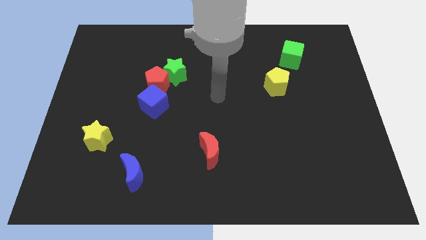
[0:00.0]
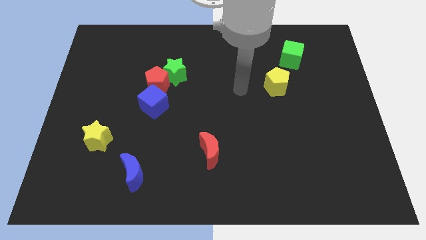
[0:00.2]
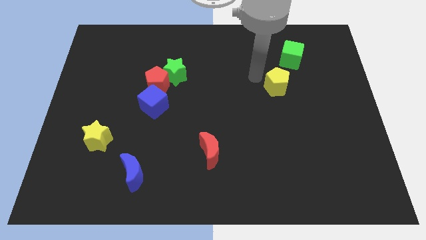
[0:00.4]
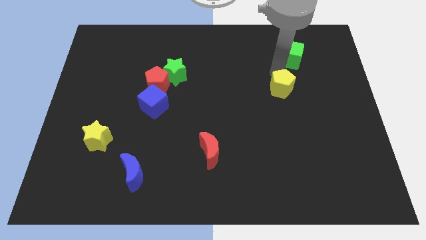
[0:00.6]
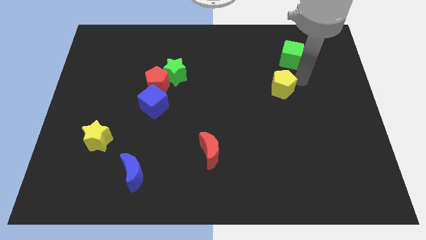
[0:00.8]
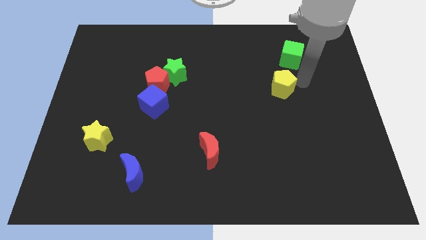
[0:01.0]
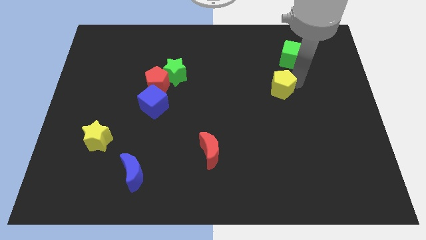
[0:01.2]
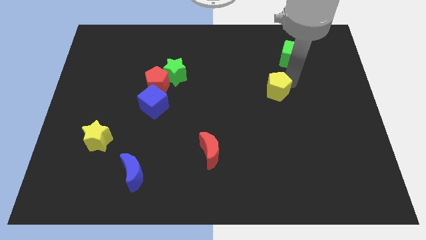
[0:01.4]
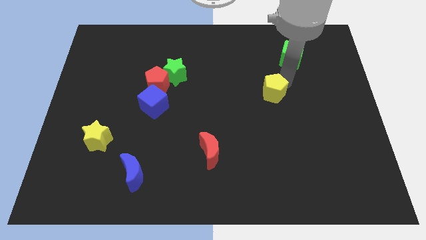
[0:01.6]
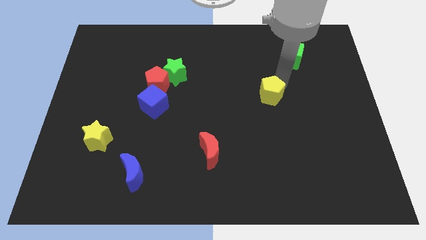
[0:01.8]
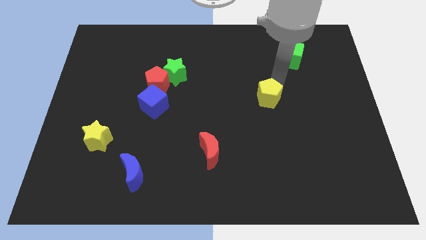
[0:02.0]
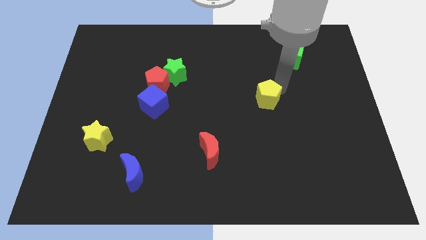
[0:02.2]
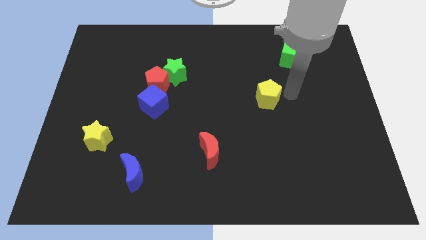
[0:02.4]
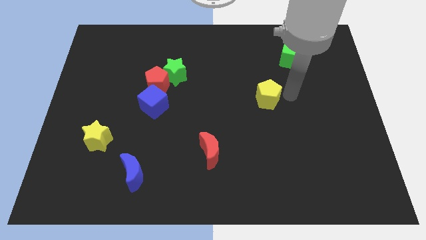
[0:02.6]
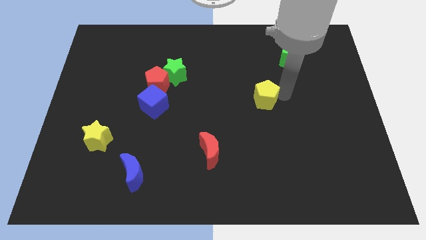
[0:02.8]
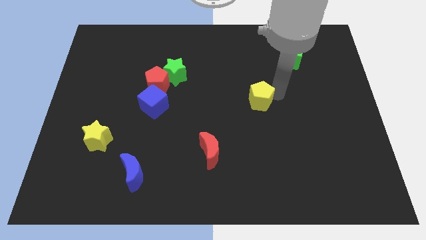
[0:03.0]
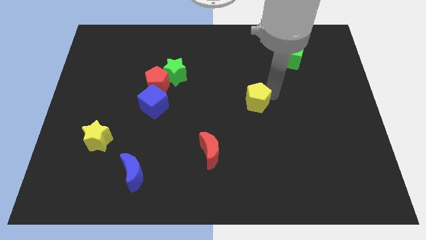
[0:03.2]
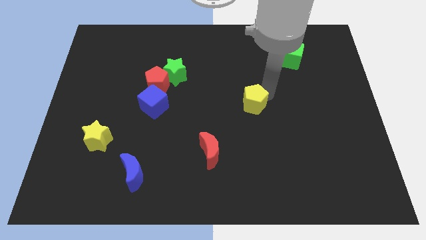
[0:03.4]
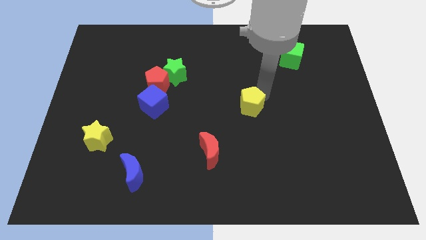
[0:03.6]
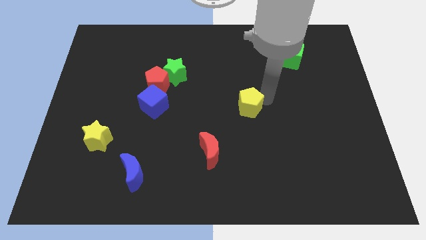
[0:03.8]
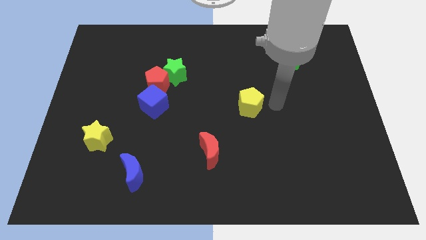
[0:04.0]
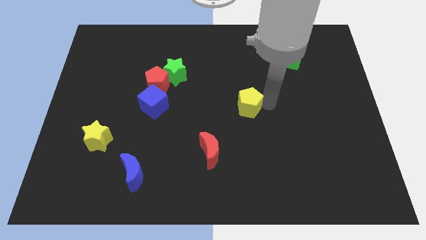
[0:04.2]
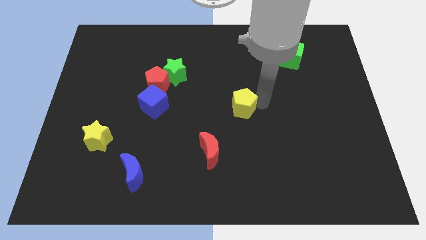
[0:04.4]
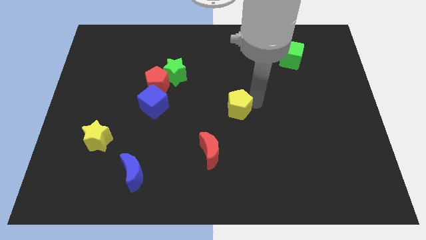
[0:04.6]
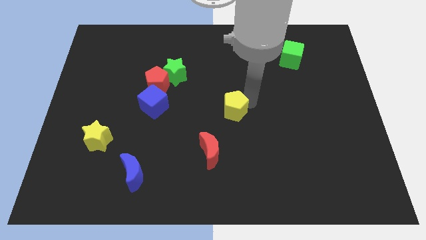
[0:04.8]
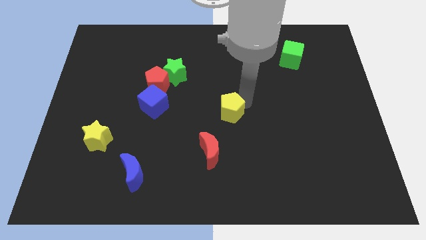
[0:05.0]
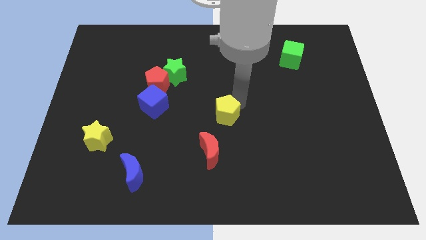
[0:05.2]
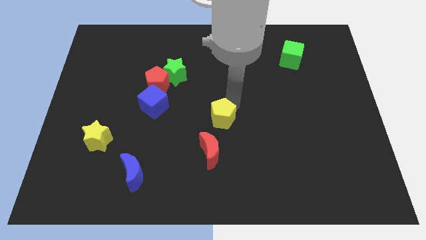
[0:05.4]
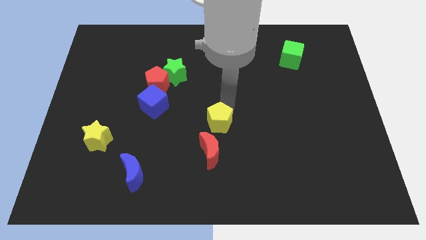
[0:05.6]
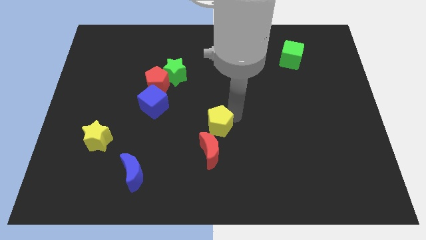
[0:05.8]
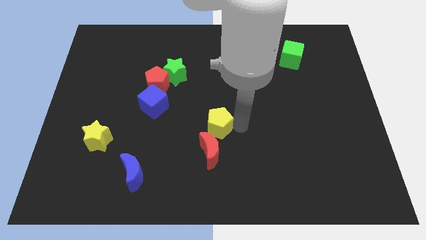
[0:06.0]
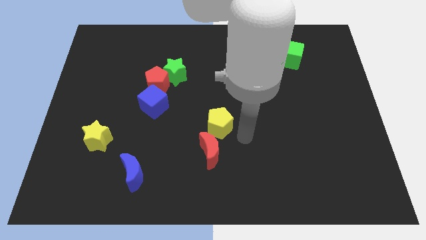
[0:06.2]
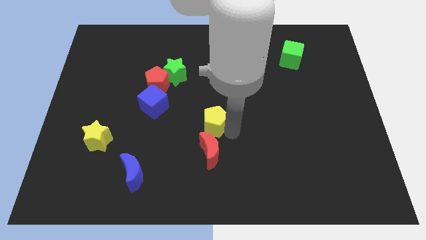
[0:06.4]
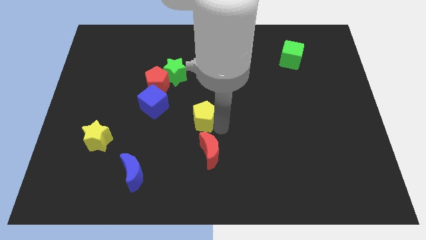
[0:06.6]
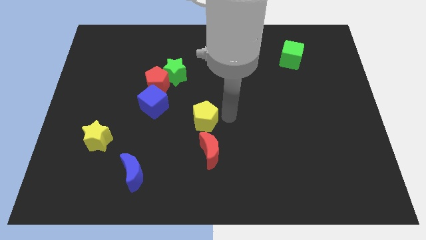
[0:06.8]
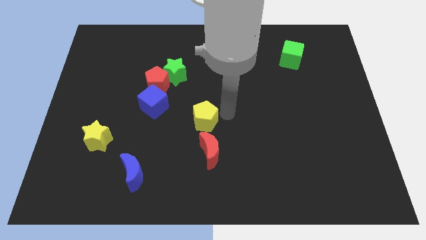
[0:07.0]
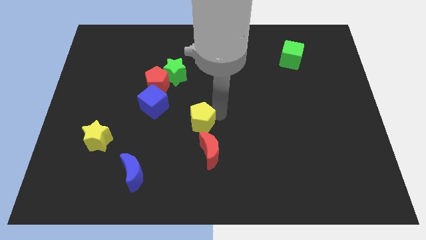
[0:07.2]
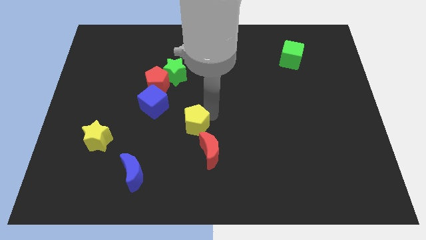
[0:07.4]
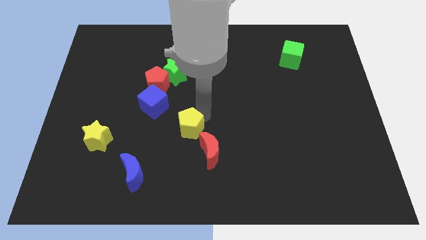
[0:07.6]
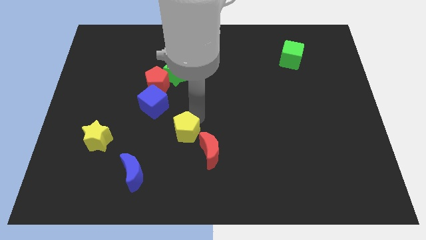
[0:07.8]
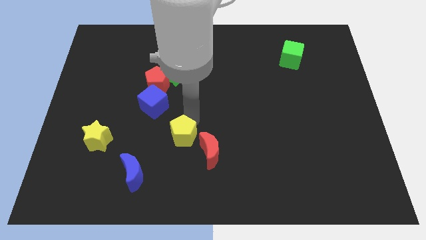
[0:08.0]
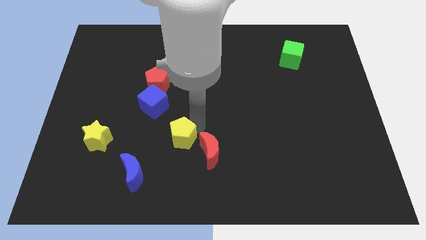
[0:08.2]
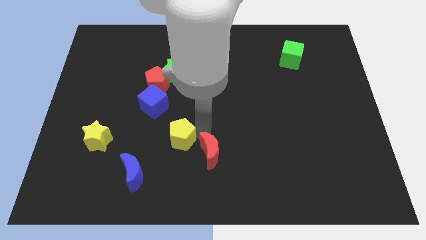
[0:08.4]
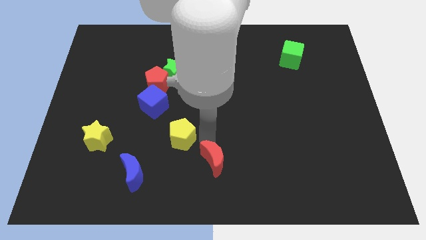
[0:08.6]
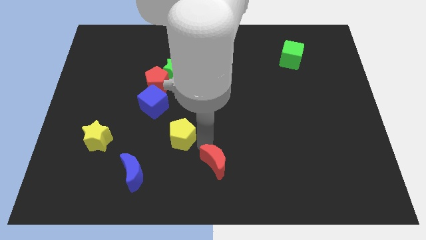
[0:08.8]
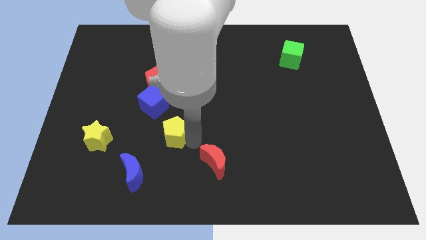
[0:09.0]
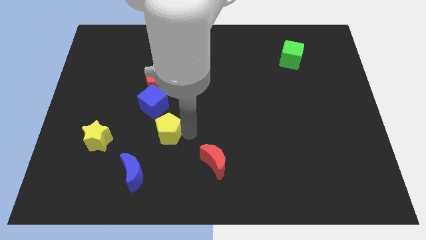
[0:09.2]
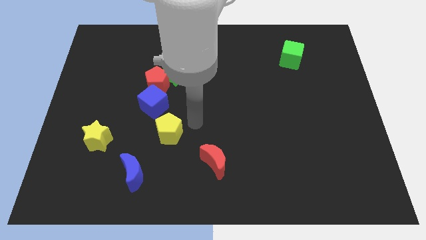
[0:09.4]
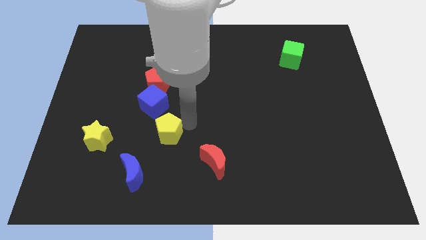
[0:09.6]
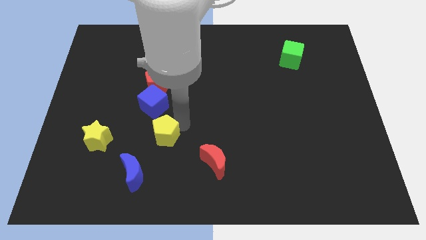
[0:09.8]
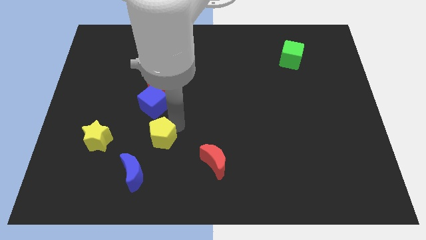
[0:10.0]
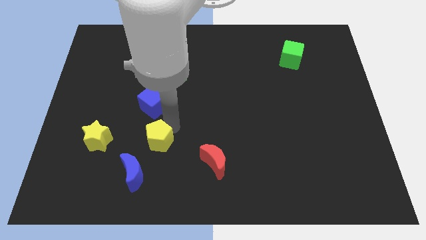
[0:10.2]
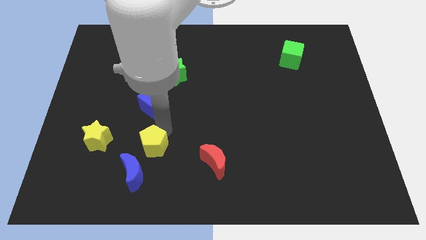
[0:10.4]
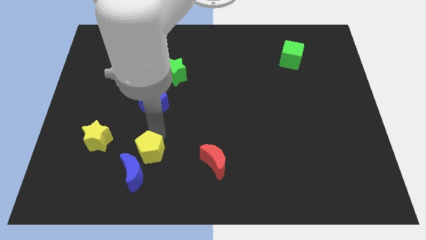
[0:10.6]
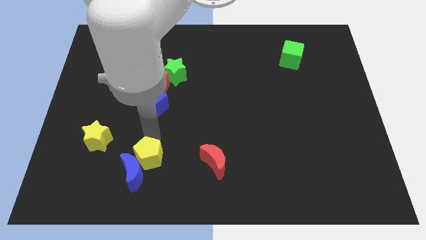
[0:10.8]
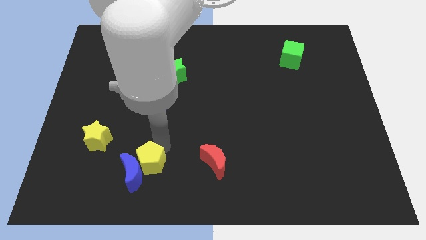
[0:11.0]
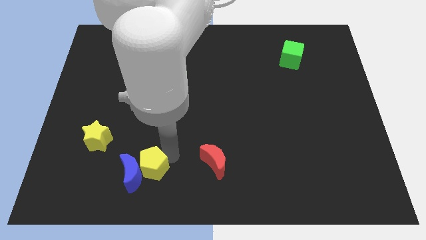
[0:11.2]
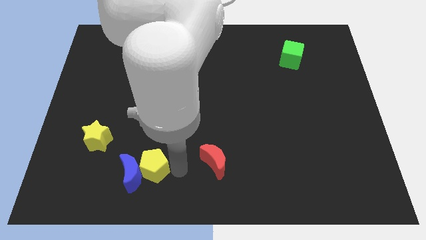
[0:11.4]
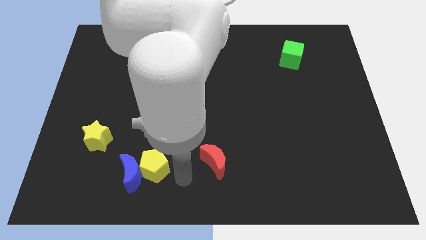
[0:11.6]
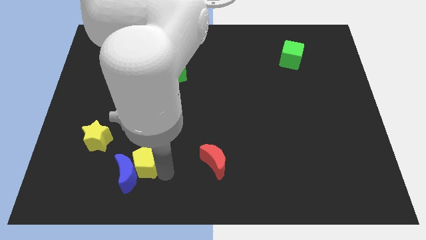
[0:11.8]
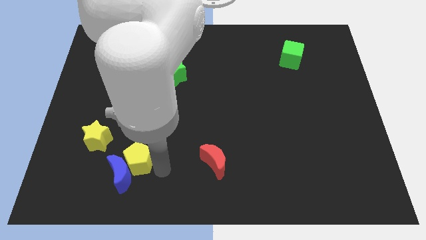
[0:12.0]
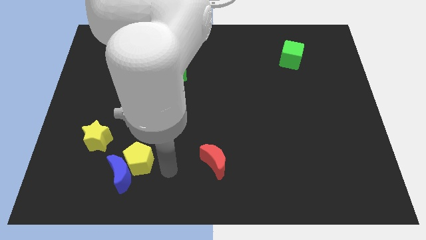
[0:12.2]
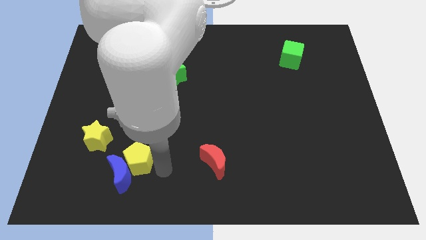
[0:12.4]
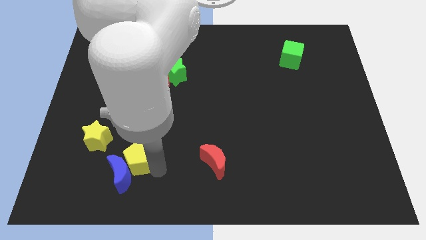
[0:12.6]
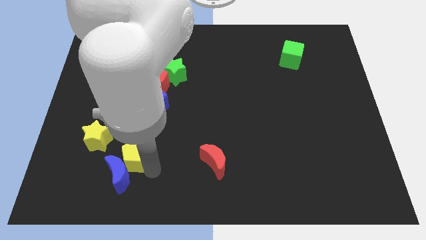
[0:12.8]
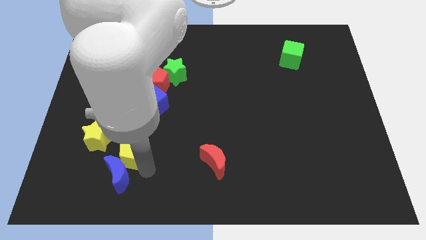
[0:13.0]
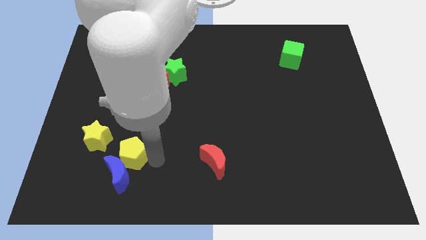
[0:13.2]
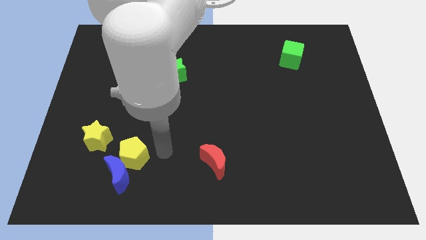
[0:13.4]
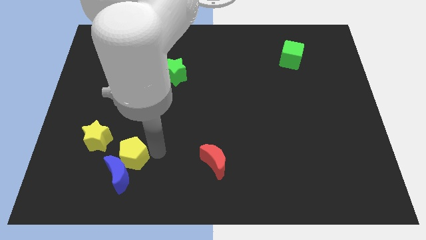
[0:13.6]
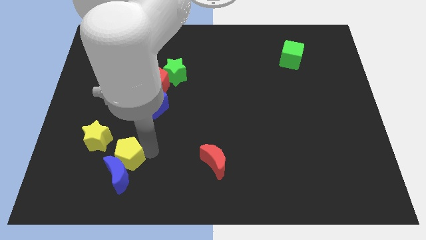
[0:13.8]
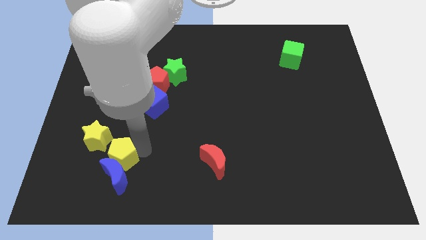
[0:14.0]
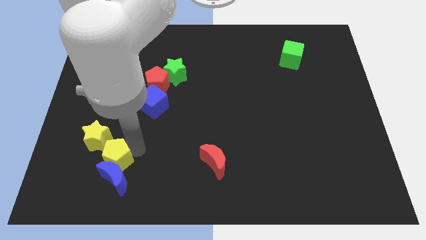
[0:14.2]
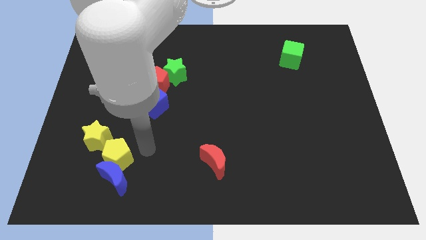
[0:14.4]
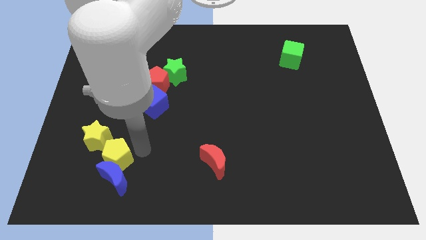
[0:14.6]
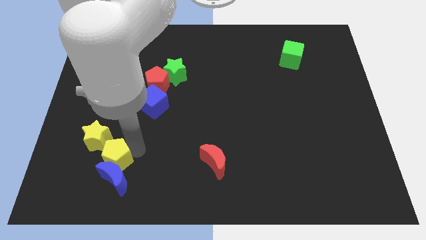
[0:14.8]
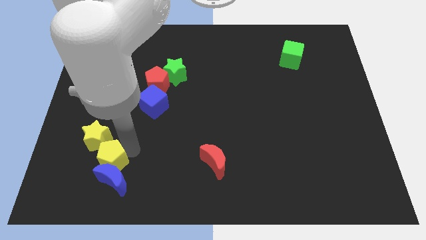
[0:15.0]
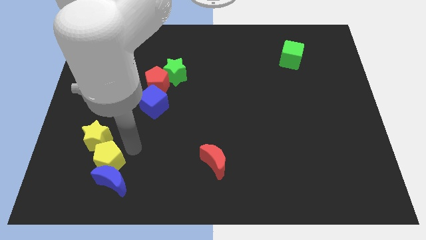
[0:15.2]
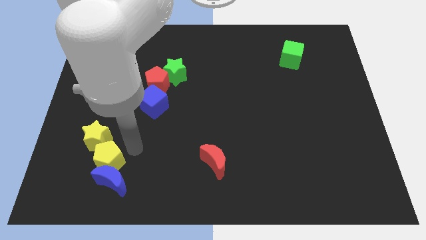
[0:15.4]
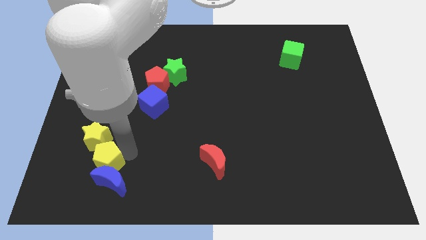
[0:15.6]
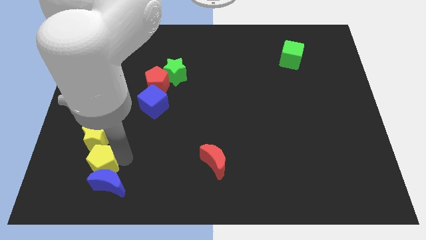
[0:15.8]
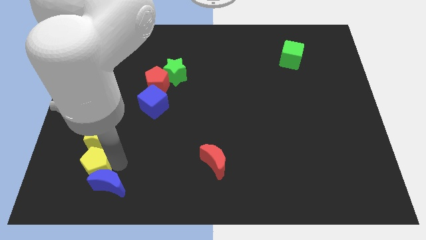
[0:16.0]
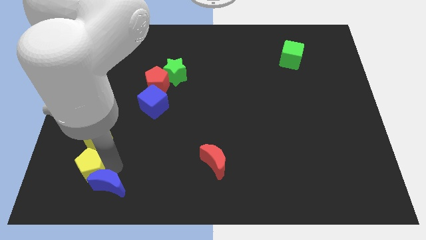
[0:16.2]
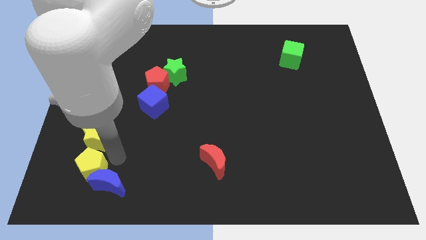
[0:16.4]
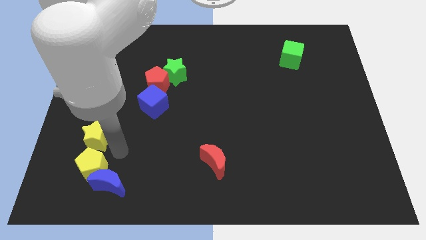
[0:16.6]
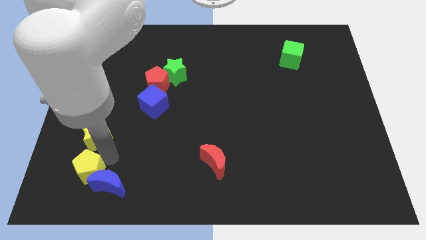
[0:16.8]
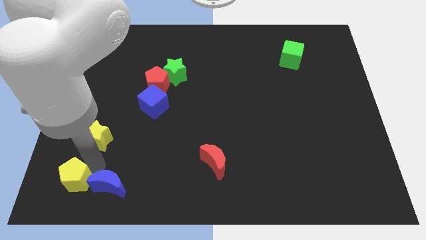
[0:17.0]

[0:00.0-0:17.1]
slide the yellow pentagon to the bottom left corner
